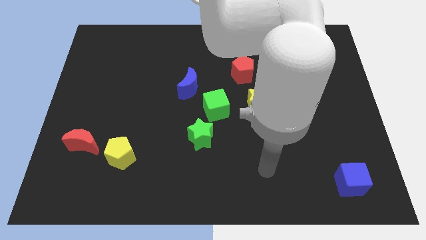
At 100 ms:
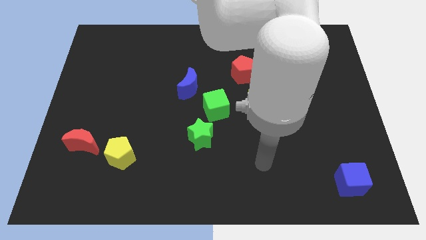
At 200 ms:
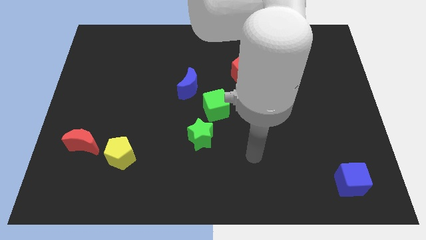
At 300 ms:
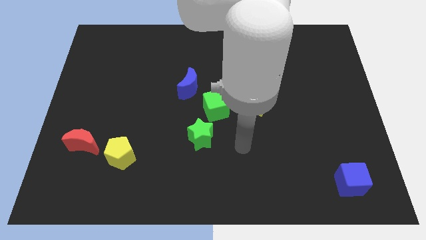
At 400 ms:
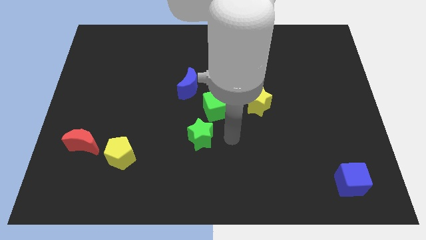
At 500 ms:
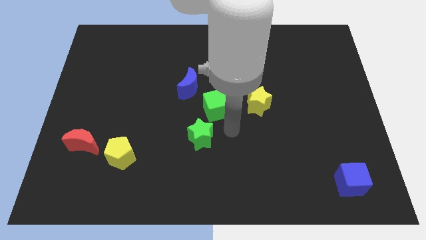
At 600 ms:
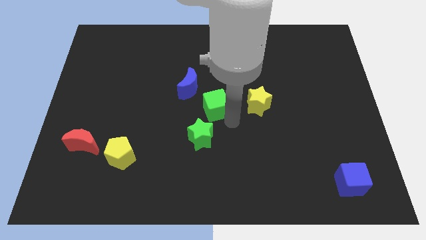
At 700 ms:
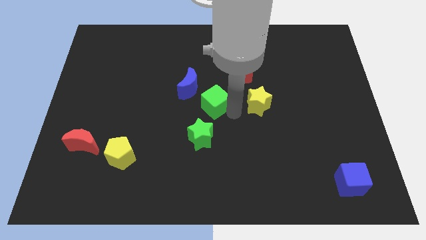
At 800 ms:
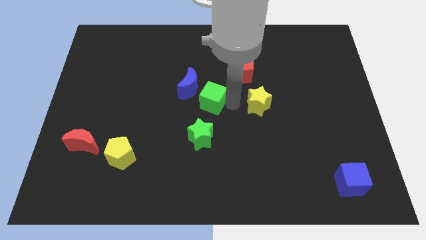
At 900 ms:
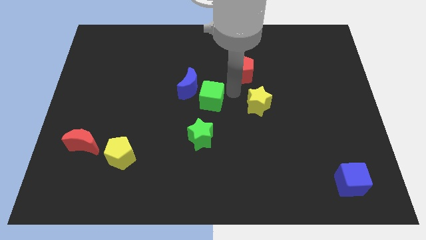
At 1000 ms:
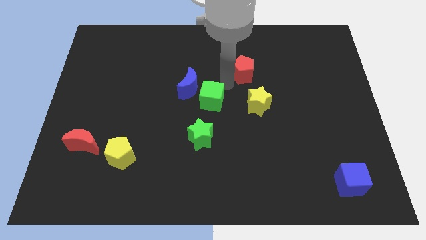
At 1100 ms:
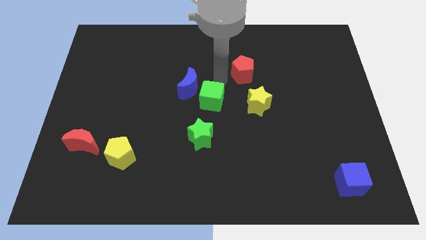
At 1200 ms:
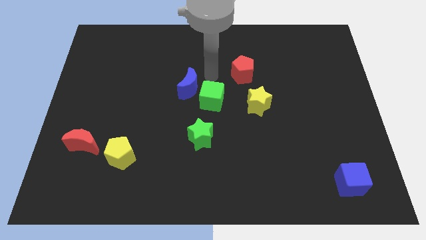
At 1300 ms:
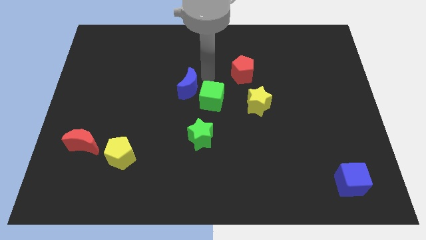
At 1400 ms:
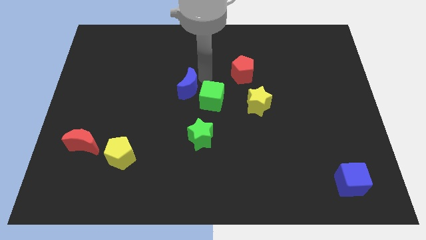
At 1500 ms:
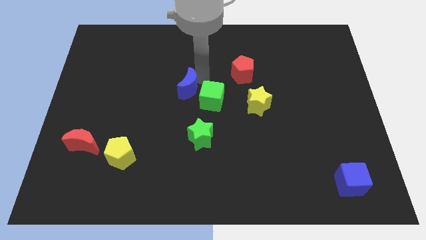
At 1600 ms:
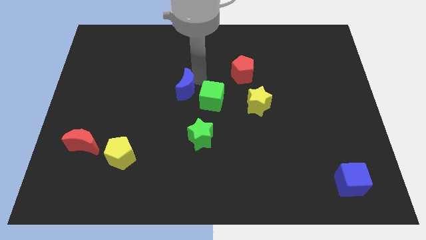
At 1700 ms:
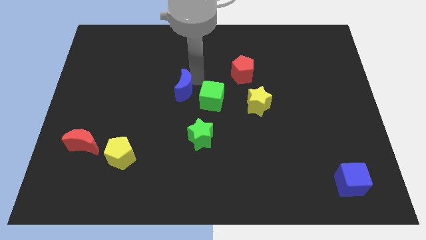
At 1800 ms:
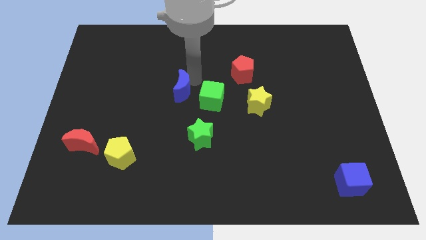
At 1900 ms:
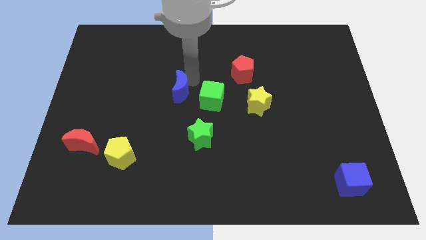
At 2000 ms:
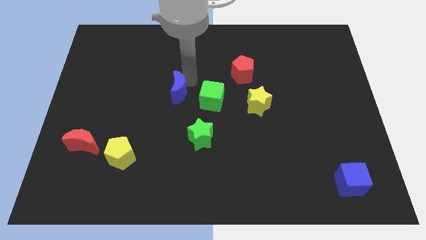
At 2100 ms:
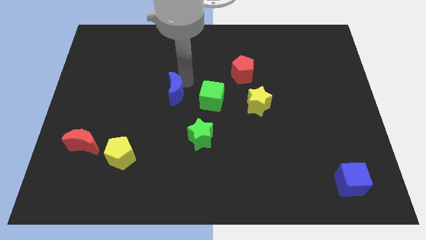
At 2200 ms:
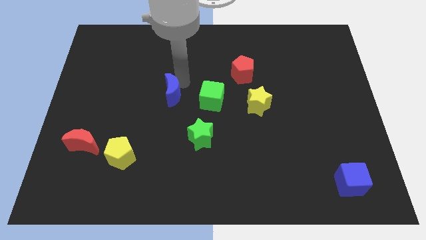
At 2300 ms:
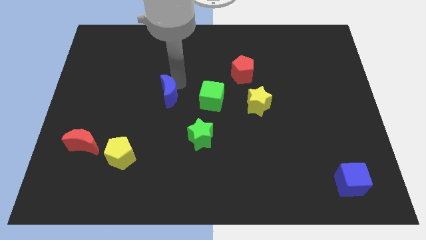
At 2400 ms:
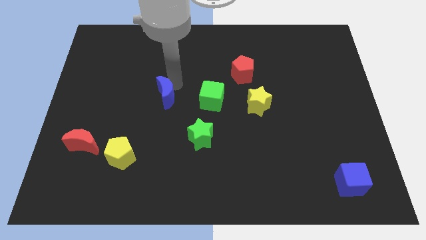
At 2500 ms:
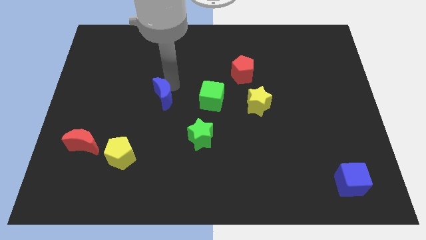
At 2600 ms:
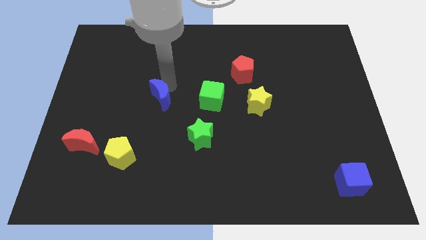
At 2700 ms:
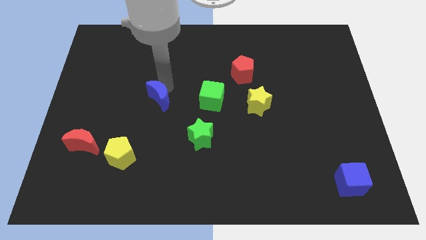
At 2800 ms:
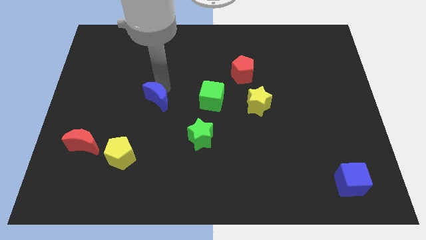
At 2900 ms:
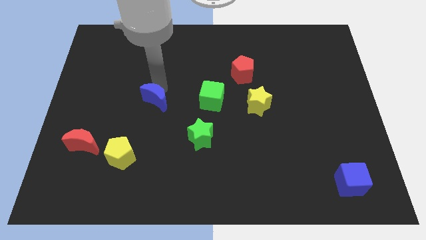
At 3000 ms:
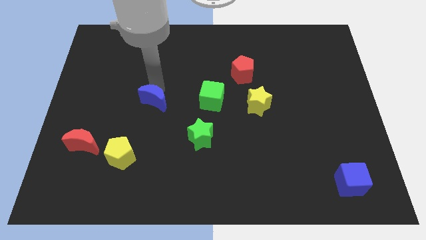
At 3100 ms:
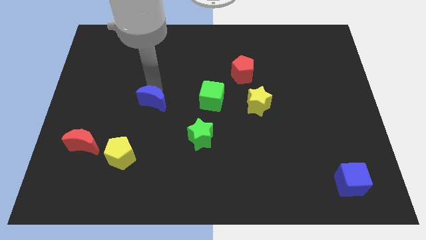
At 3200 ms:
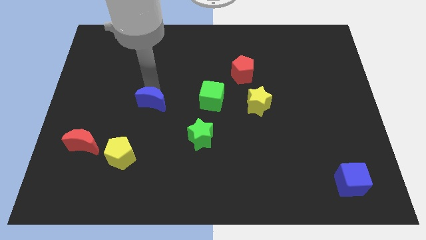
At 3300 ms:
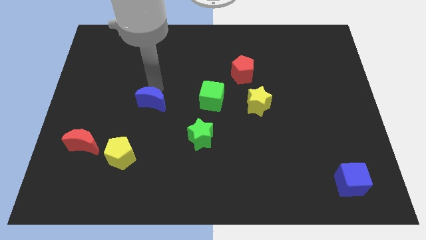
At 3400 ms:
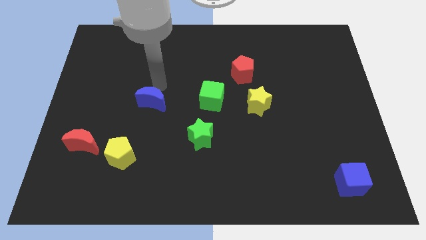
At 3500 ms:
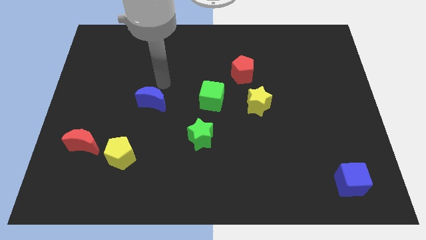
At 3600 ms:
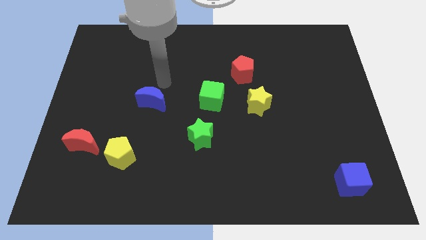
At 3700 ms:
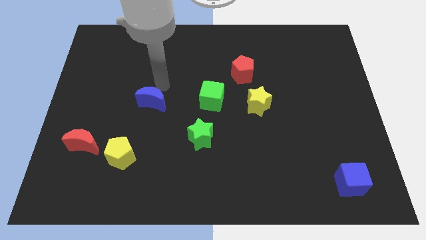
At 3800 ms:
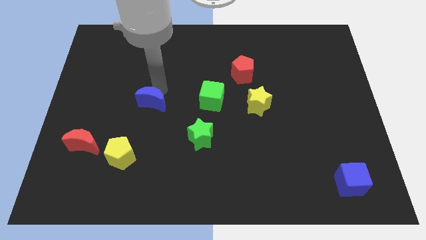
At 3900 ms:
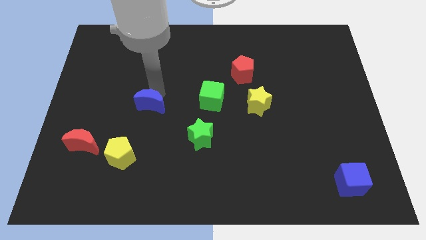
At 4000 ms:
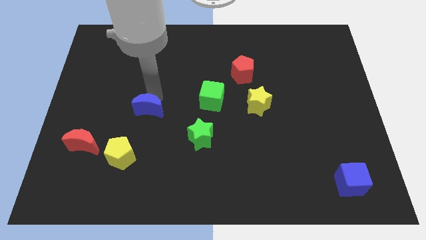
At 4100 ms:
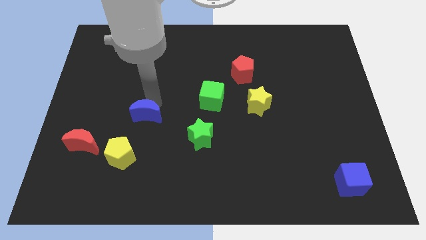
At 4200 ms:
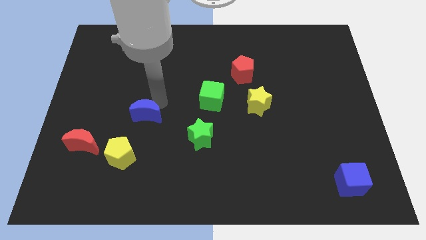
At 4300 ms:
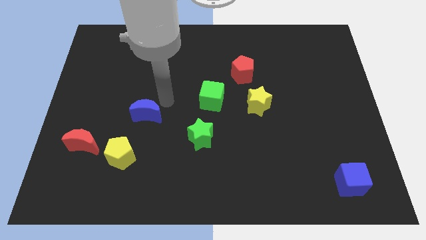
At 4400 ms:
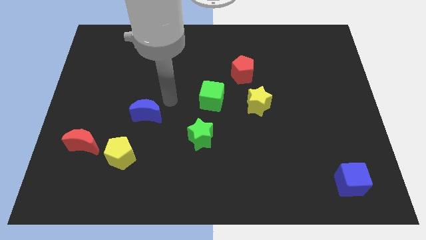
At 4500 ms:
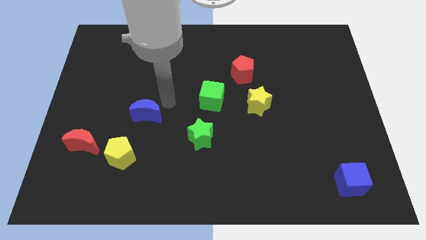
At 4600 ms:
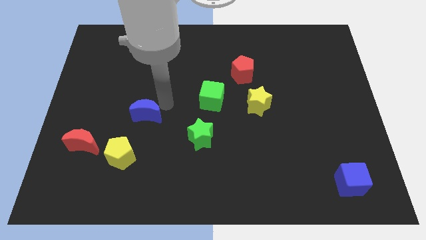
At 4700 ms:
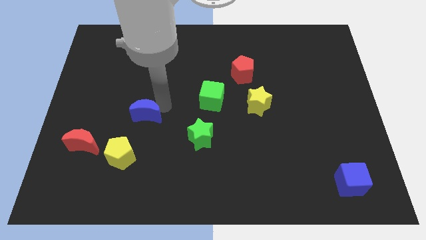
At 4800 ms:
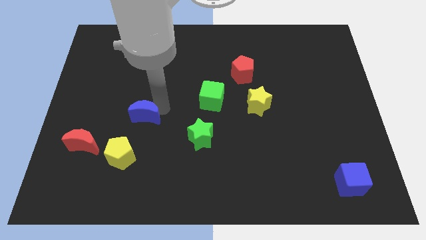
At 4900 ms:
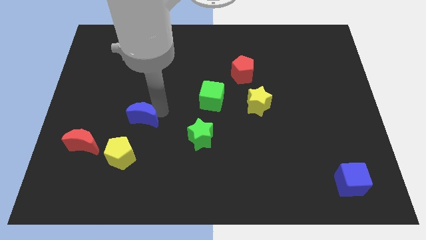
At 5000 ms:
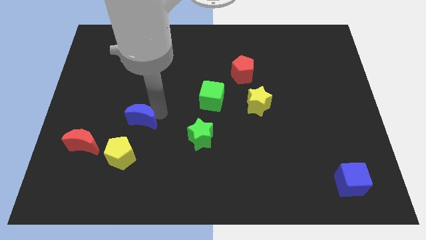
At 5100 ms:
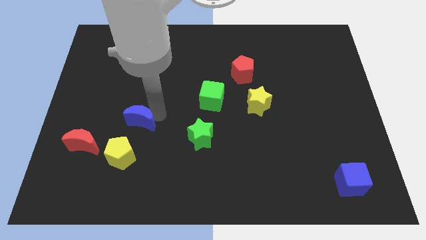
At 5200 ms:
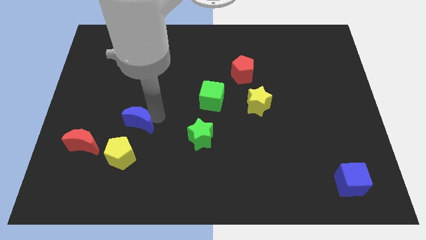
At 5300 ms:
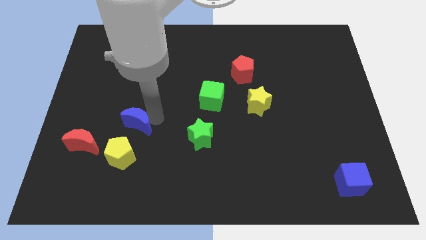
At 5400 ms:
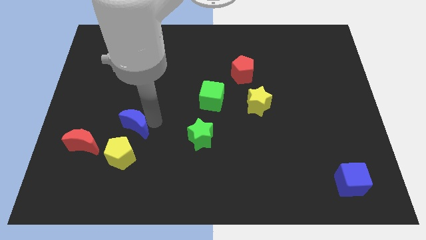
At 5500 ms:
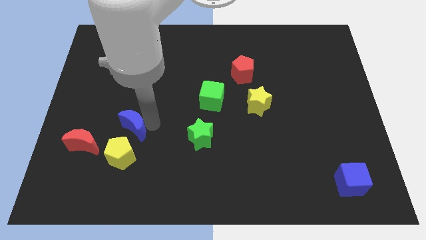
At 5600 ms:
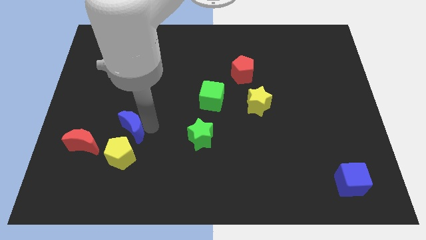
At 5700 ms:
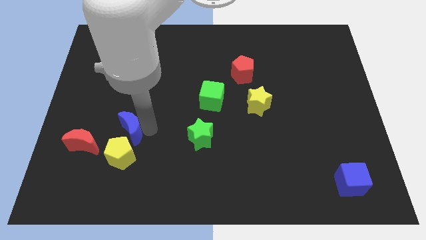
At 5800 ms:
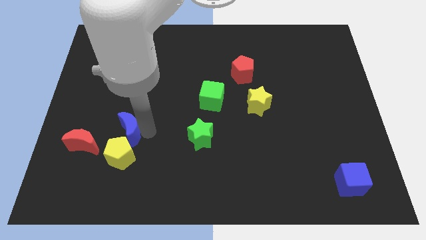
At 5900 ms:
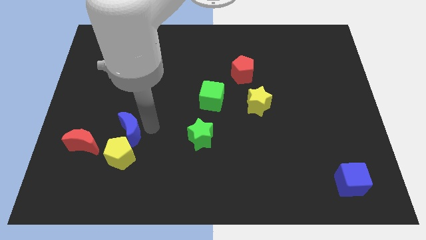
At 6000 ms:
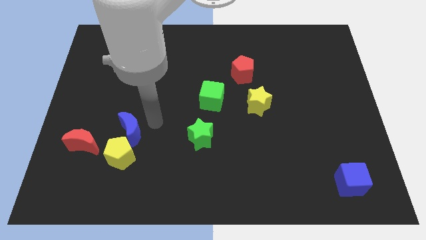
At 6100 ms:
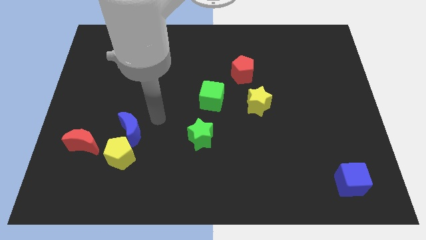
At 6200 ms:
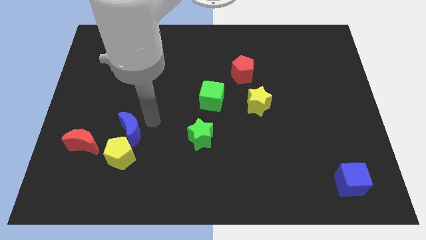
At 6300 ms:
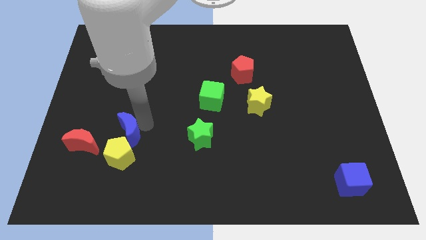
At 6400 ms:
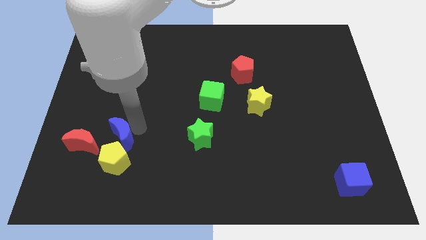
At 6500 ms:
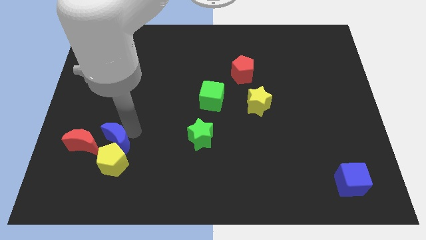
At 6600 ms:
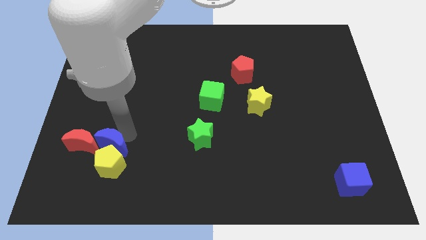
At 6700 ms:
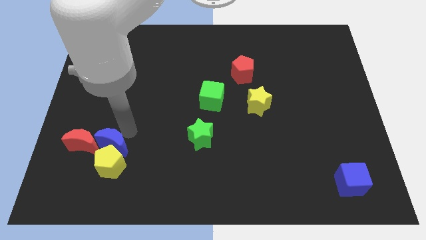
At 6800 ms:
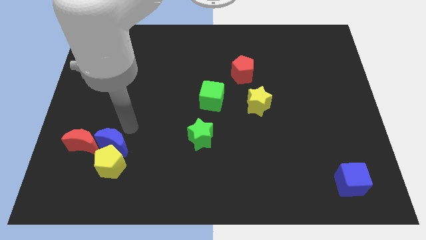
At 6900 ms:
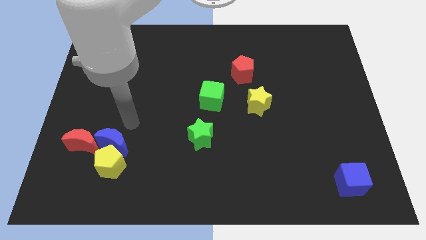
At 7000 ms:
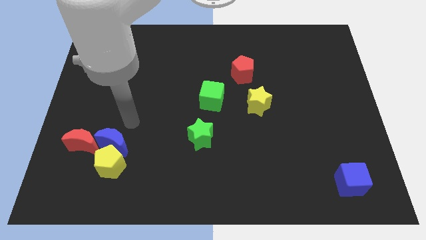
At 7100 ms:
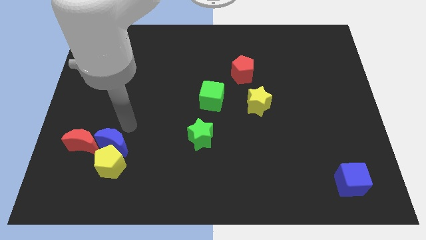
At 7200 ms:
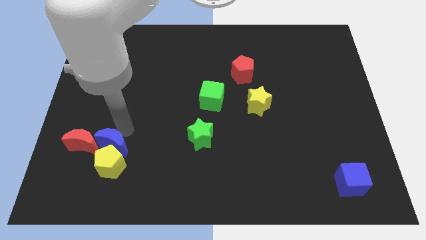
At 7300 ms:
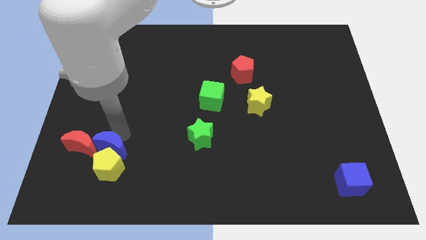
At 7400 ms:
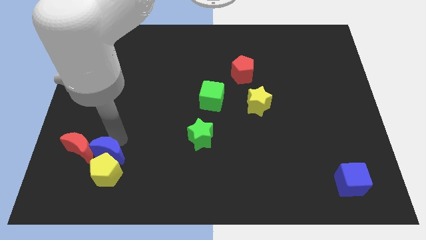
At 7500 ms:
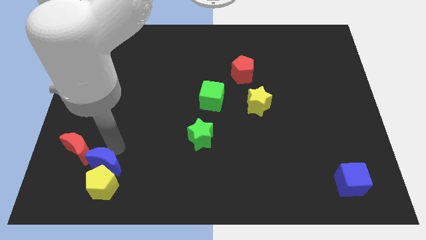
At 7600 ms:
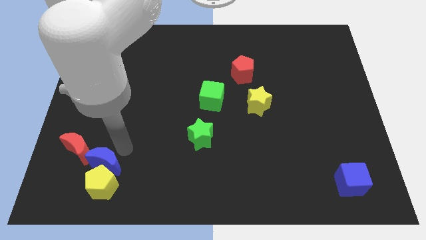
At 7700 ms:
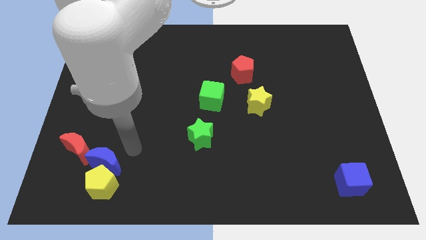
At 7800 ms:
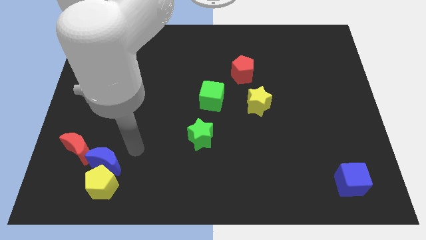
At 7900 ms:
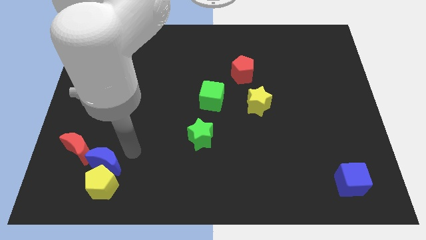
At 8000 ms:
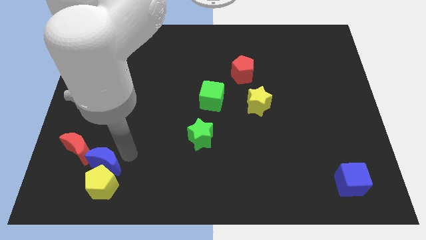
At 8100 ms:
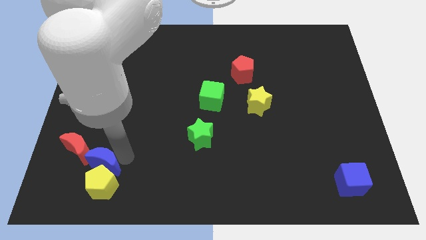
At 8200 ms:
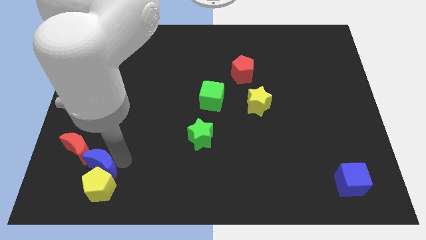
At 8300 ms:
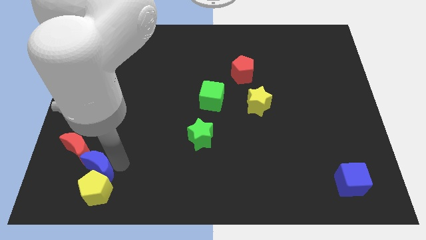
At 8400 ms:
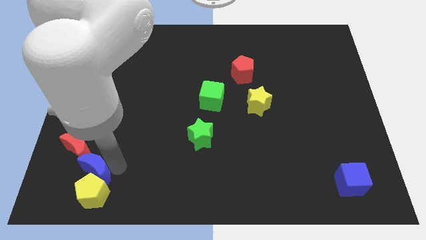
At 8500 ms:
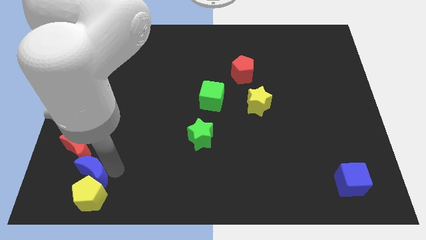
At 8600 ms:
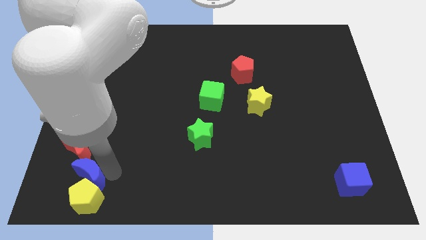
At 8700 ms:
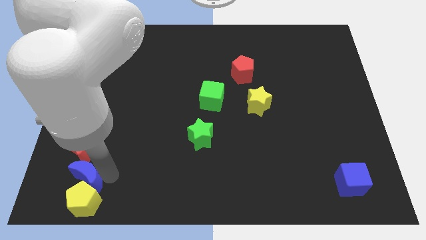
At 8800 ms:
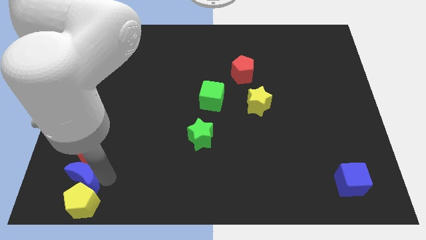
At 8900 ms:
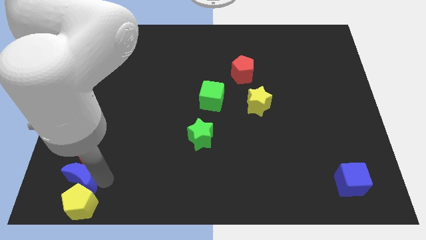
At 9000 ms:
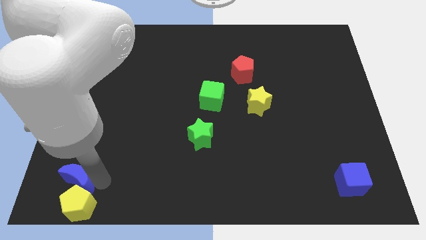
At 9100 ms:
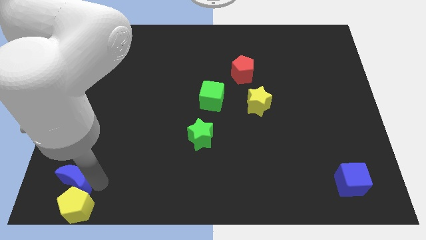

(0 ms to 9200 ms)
slide the blue moon to the bottom left of the board
